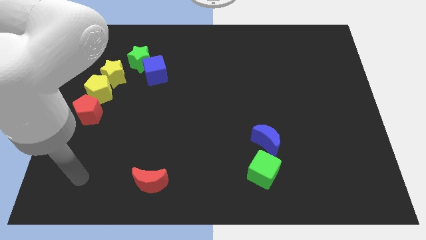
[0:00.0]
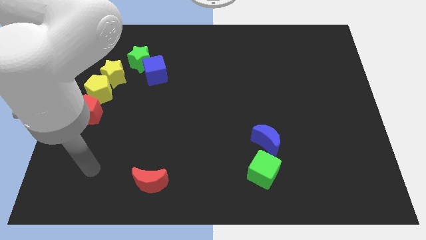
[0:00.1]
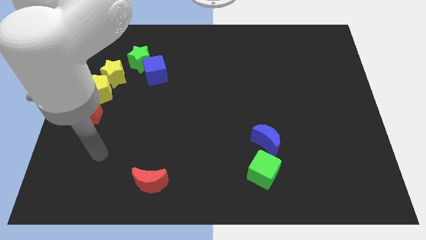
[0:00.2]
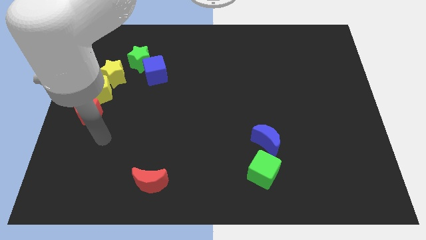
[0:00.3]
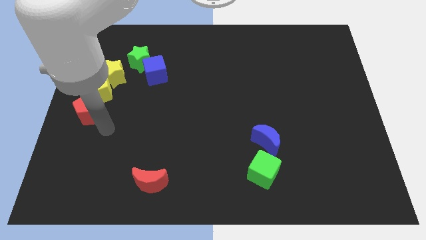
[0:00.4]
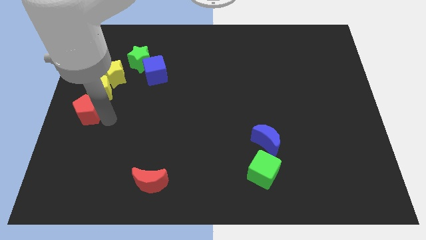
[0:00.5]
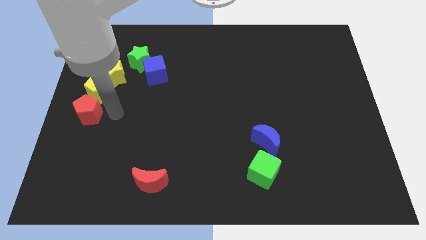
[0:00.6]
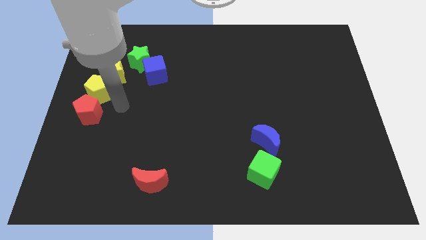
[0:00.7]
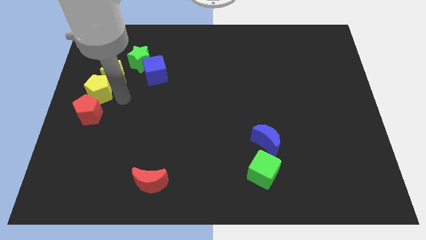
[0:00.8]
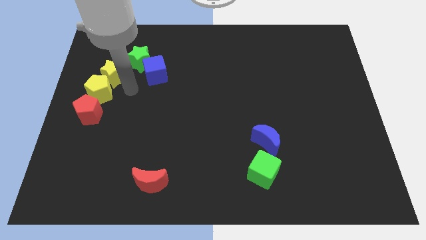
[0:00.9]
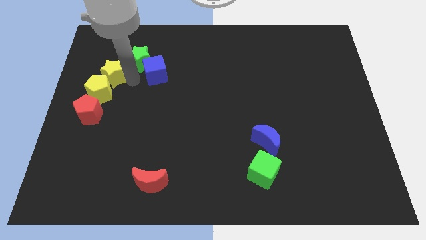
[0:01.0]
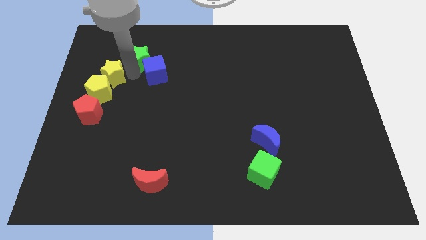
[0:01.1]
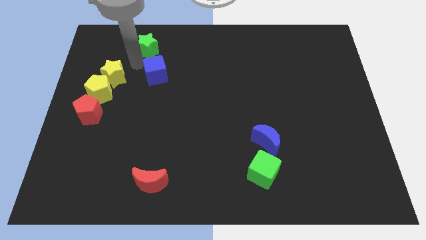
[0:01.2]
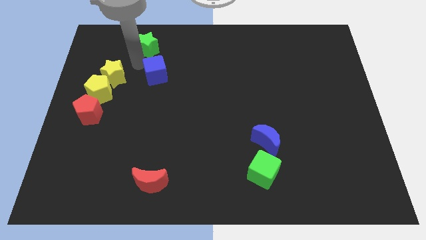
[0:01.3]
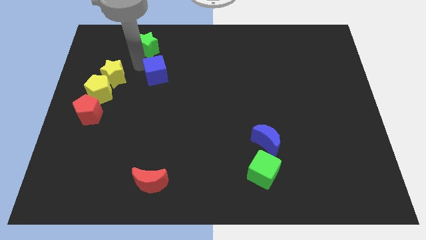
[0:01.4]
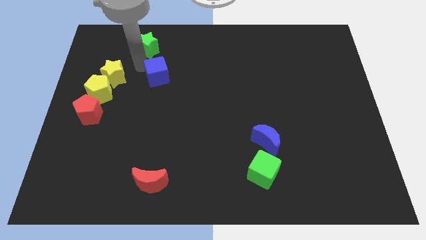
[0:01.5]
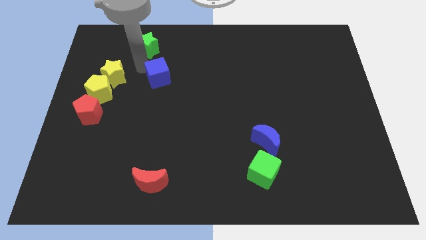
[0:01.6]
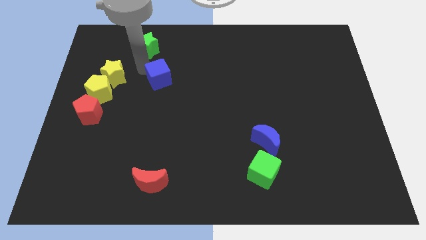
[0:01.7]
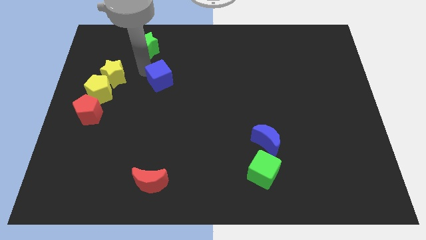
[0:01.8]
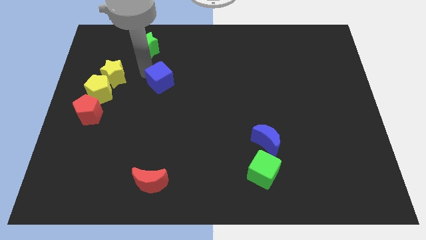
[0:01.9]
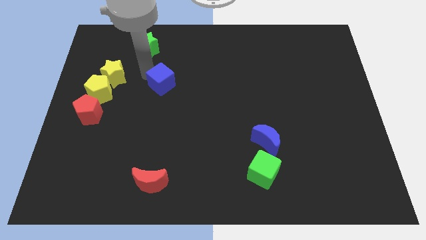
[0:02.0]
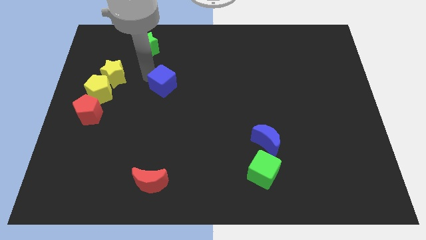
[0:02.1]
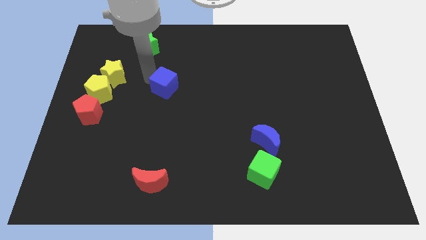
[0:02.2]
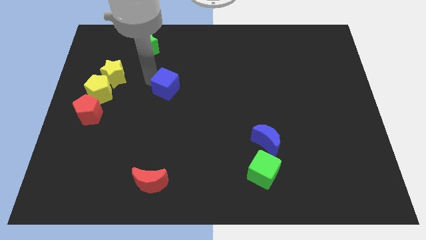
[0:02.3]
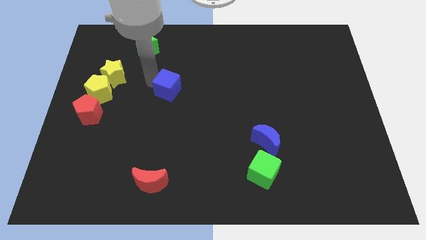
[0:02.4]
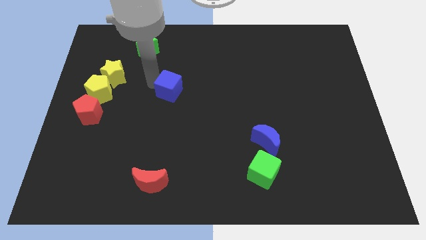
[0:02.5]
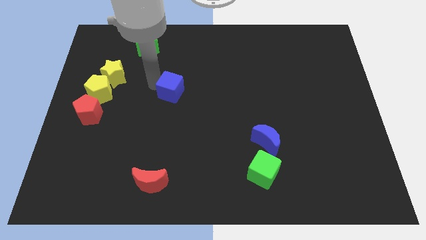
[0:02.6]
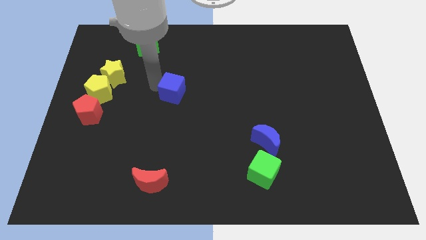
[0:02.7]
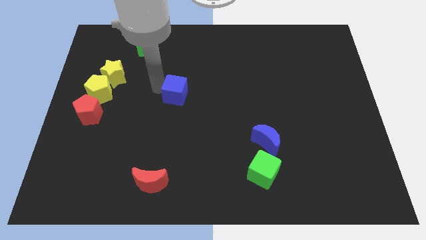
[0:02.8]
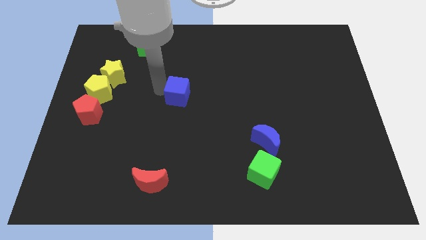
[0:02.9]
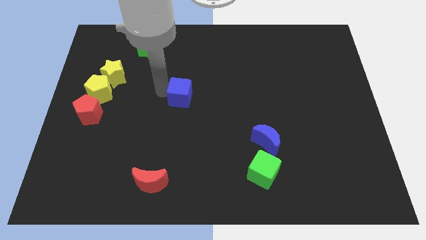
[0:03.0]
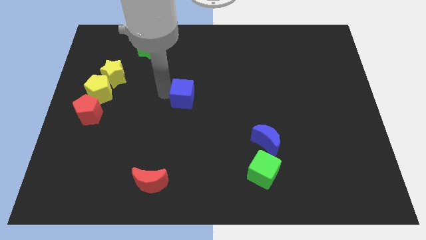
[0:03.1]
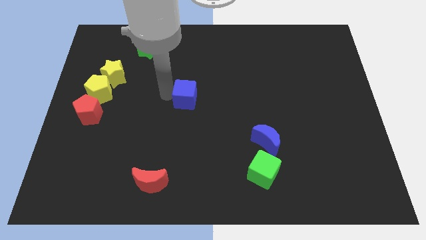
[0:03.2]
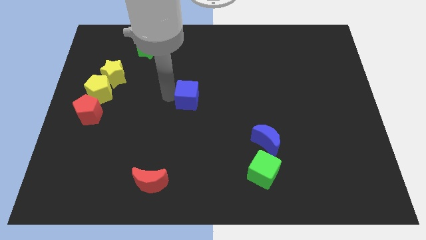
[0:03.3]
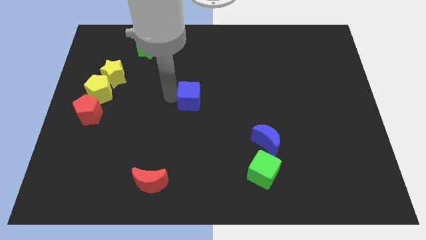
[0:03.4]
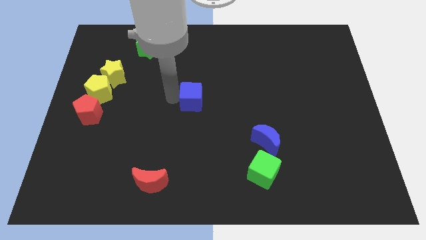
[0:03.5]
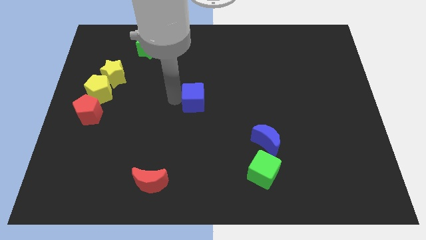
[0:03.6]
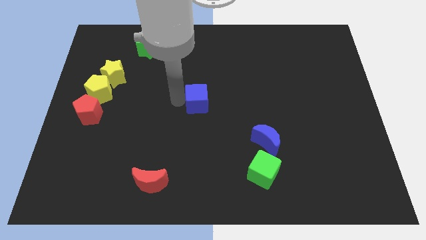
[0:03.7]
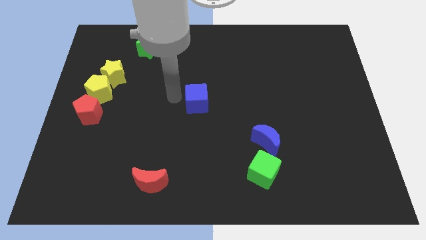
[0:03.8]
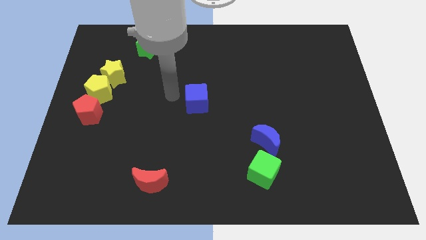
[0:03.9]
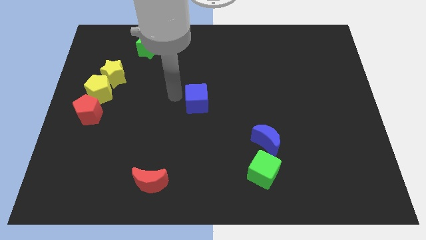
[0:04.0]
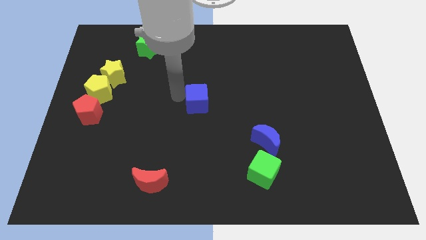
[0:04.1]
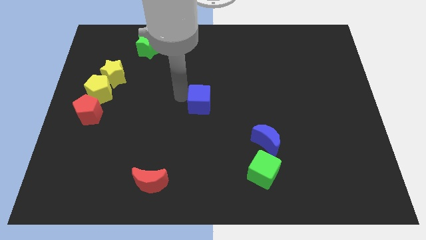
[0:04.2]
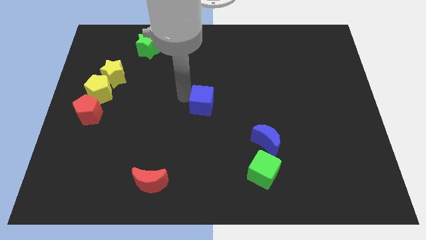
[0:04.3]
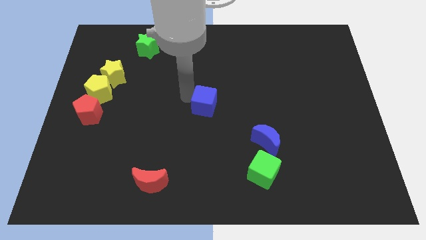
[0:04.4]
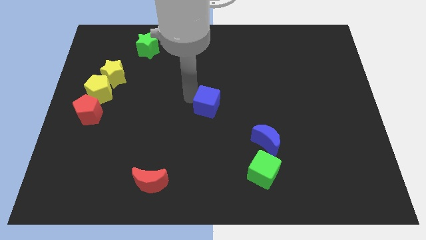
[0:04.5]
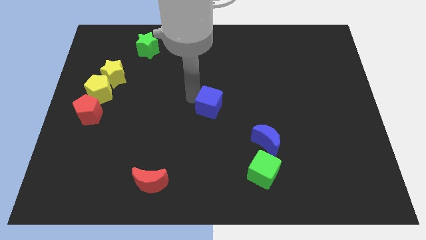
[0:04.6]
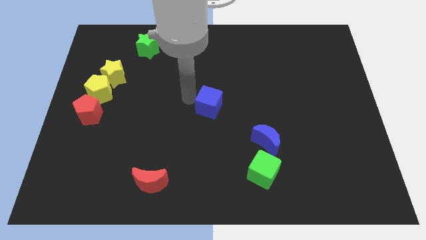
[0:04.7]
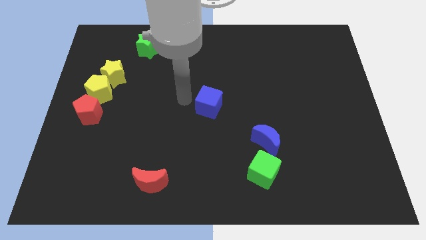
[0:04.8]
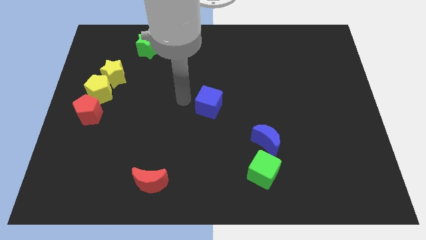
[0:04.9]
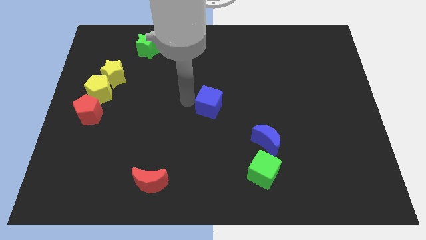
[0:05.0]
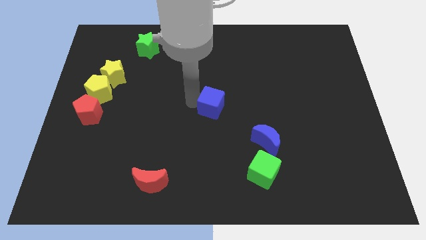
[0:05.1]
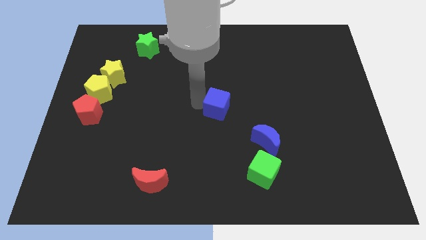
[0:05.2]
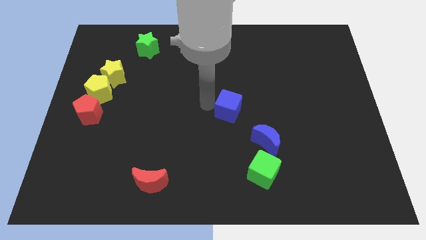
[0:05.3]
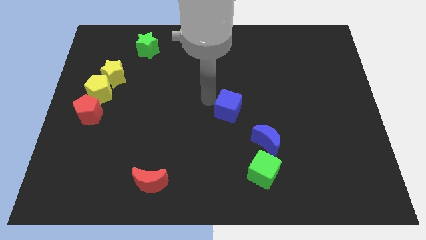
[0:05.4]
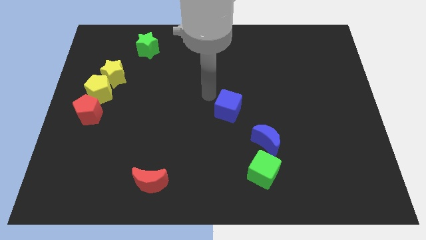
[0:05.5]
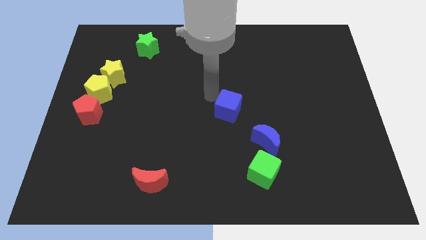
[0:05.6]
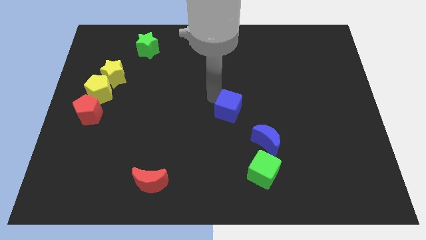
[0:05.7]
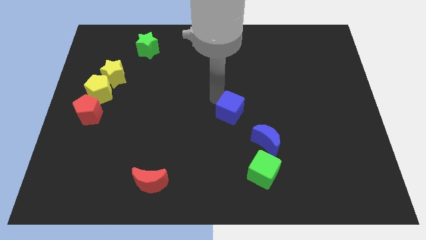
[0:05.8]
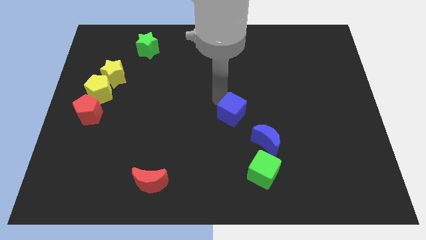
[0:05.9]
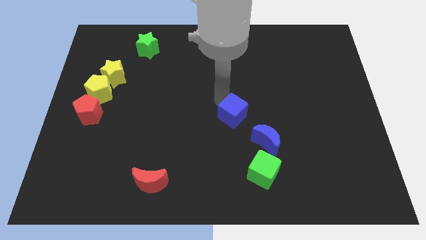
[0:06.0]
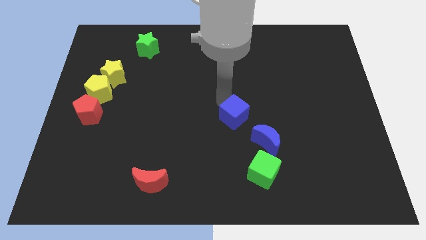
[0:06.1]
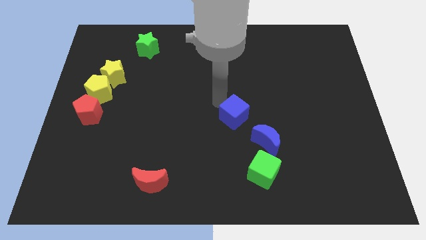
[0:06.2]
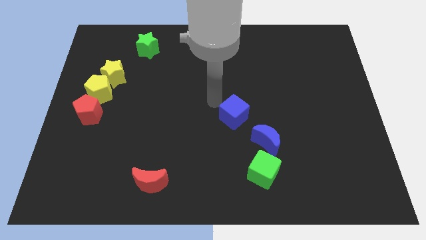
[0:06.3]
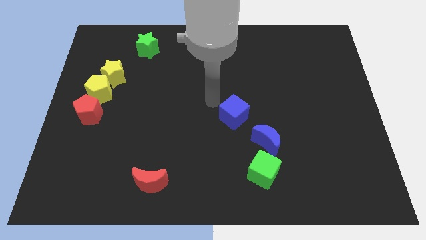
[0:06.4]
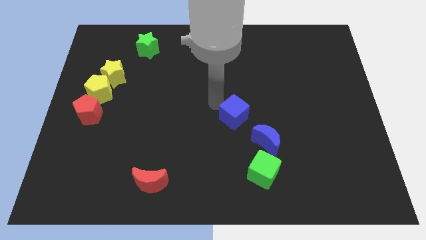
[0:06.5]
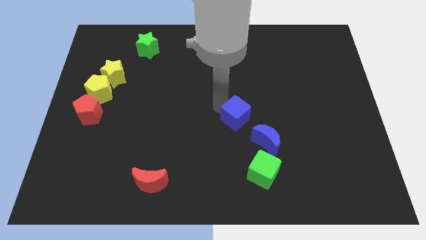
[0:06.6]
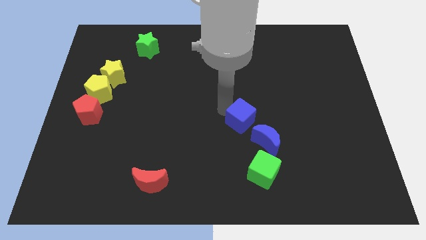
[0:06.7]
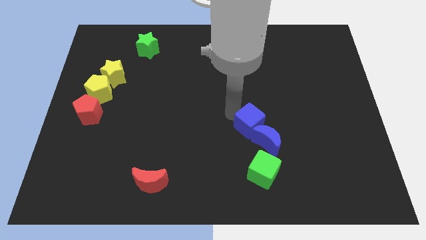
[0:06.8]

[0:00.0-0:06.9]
push the blue cube towards the blue moon
